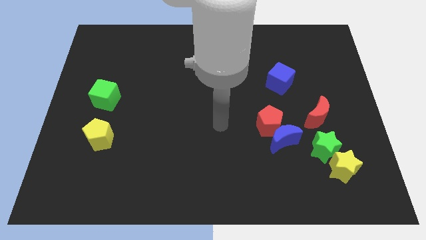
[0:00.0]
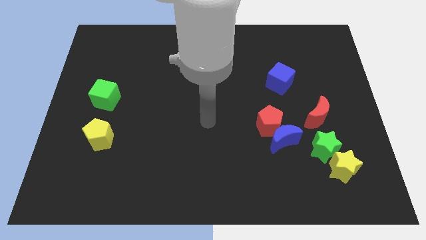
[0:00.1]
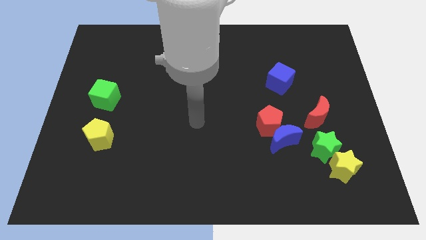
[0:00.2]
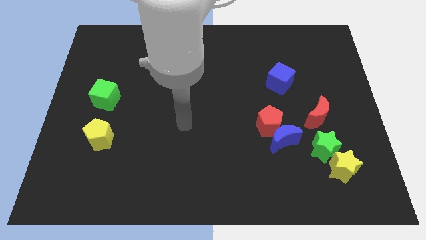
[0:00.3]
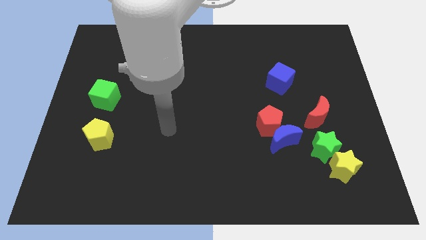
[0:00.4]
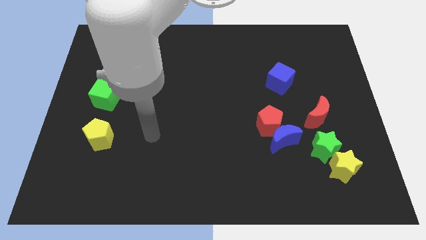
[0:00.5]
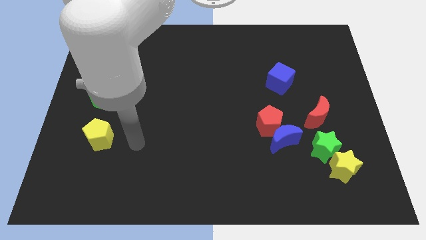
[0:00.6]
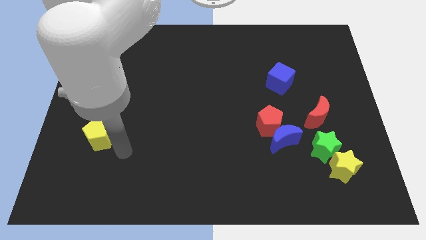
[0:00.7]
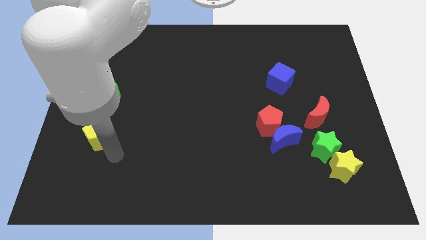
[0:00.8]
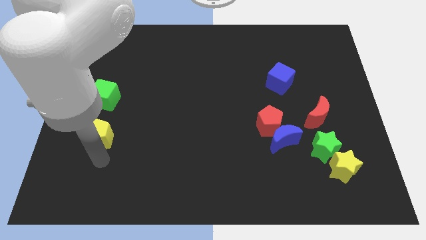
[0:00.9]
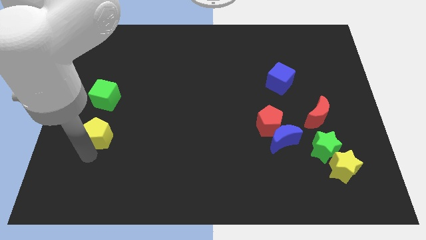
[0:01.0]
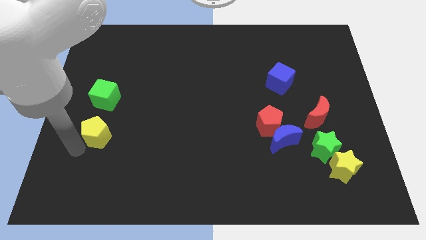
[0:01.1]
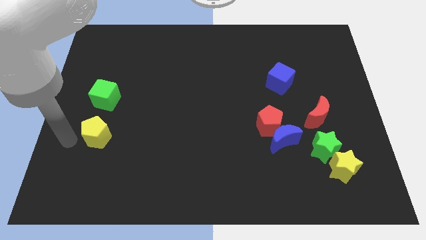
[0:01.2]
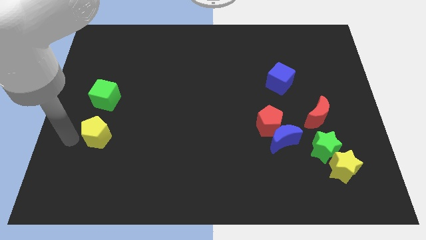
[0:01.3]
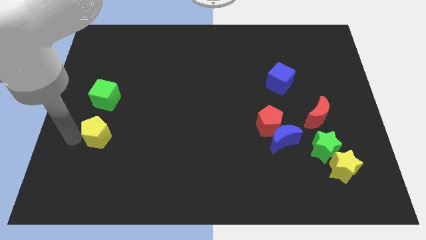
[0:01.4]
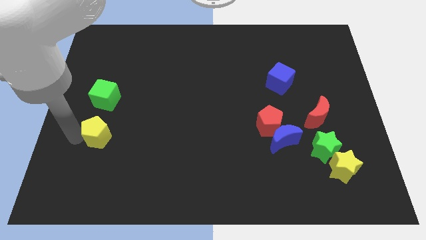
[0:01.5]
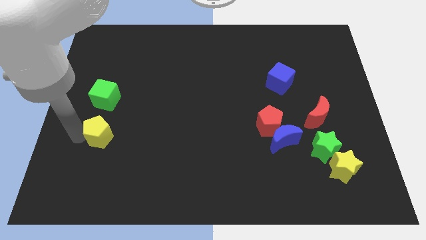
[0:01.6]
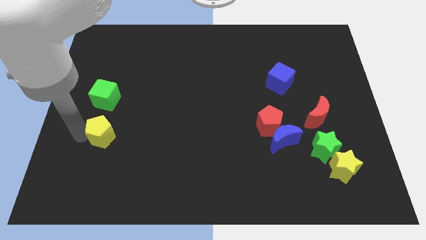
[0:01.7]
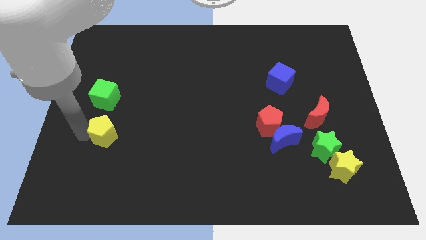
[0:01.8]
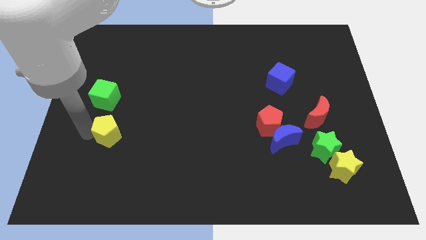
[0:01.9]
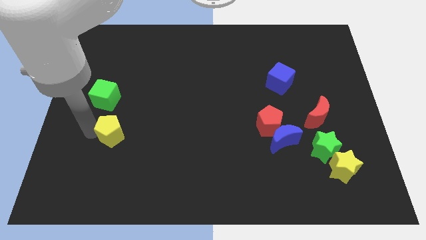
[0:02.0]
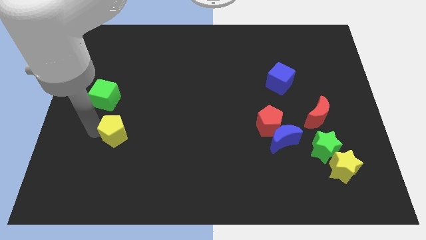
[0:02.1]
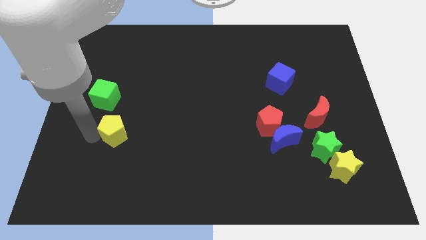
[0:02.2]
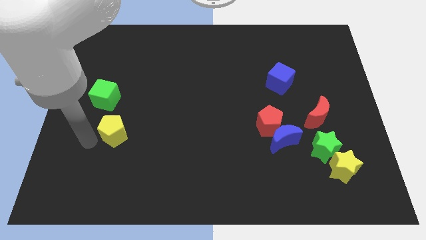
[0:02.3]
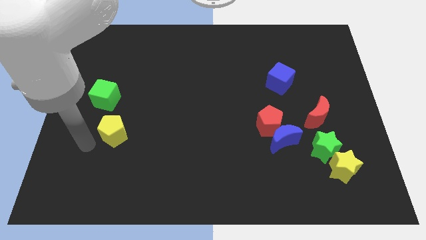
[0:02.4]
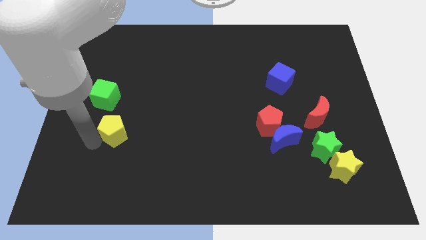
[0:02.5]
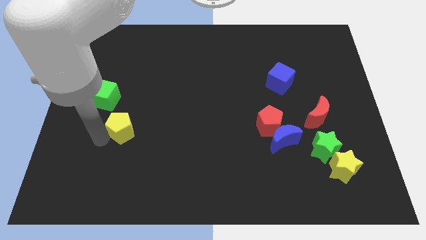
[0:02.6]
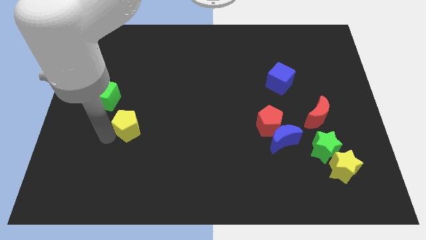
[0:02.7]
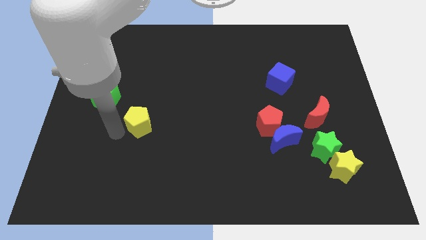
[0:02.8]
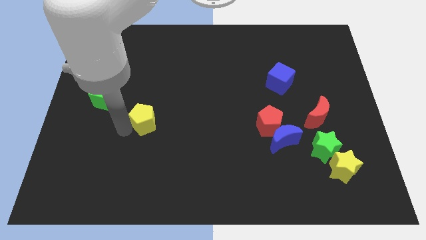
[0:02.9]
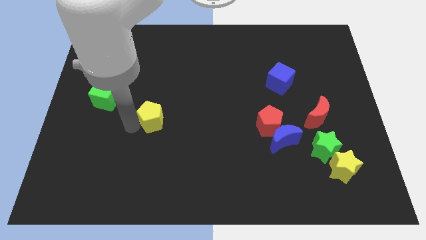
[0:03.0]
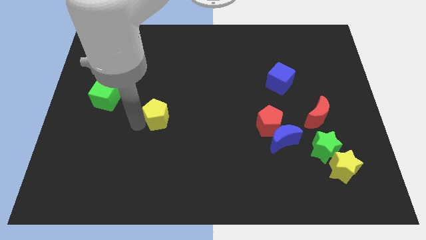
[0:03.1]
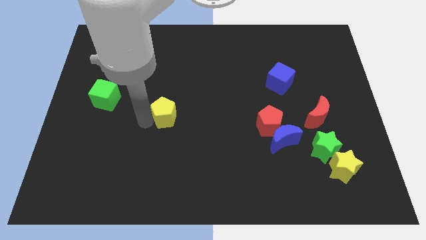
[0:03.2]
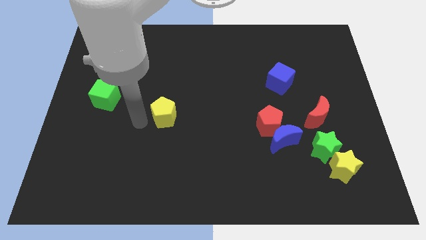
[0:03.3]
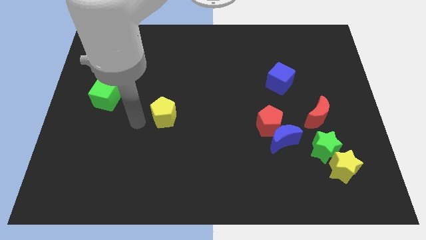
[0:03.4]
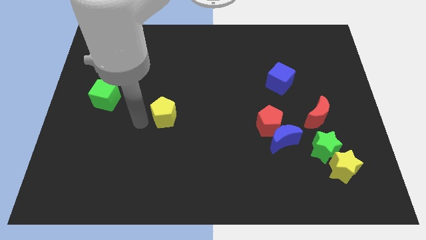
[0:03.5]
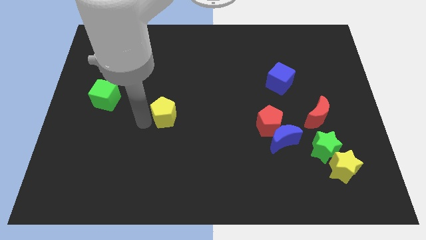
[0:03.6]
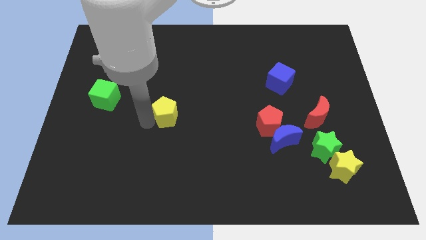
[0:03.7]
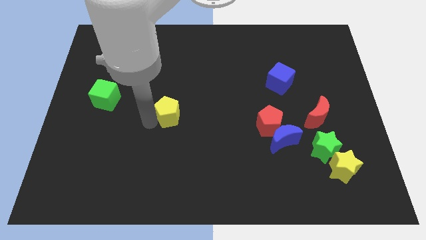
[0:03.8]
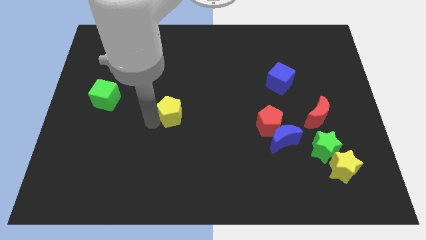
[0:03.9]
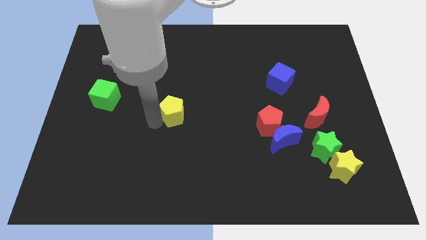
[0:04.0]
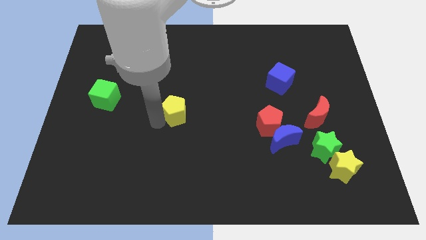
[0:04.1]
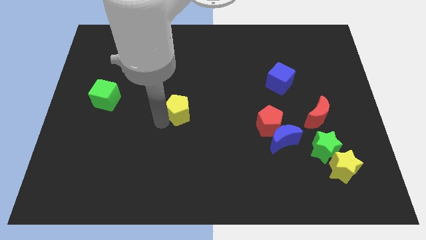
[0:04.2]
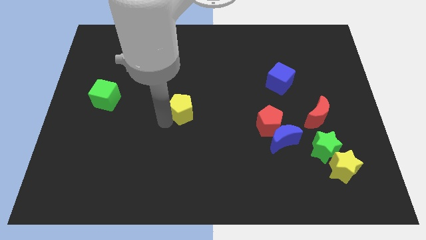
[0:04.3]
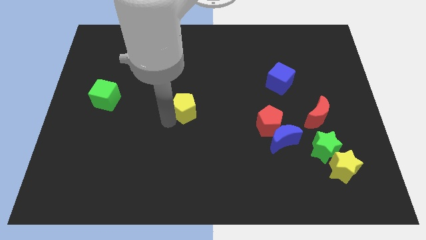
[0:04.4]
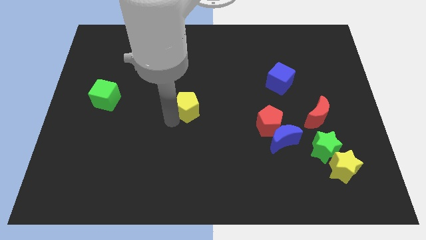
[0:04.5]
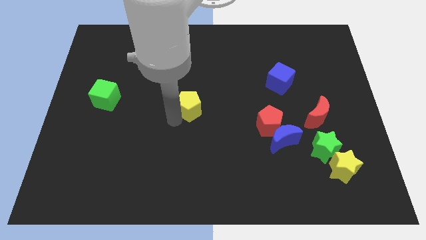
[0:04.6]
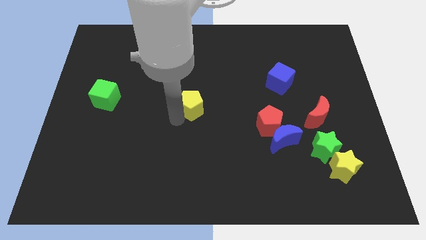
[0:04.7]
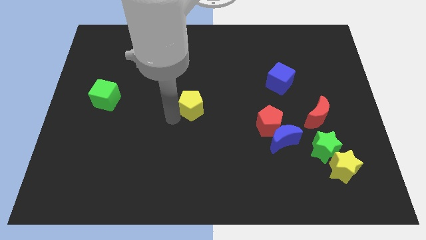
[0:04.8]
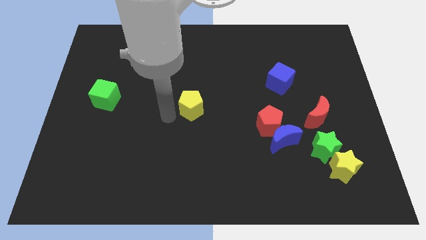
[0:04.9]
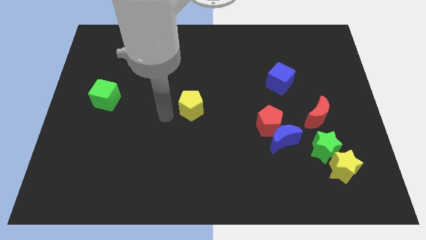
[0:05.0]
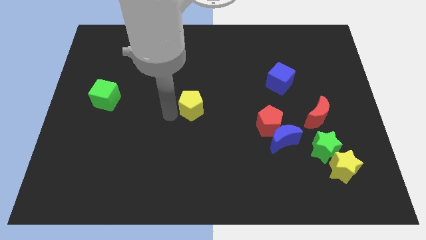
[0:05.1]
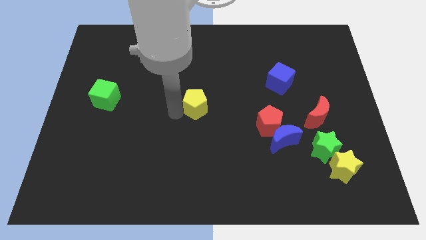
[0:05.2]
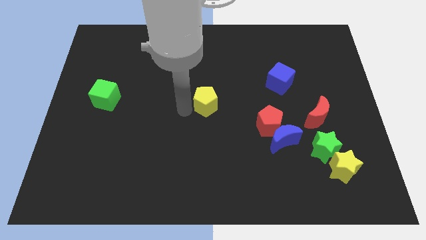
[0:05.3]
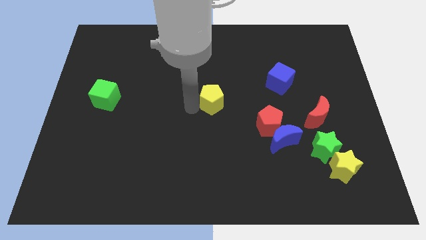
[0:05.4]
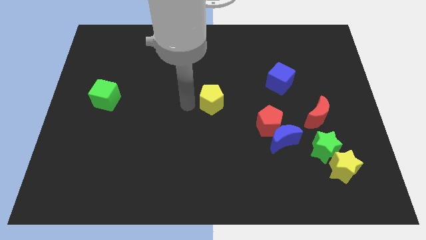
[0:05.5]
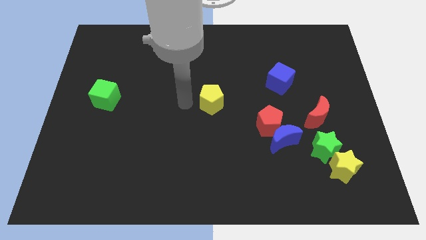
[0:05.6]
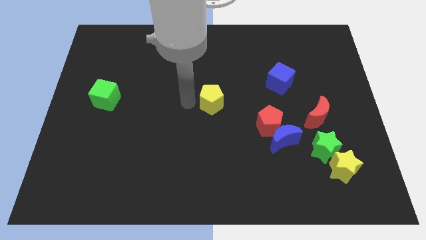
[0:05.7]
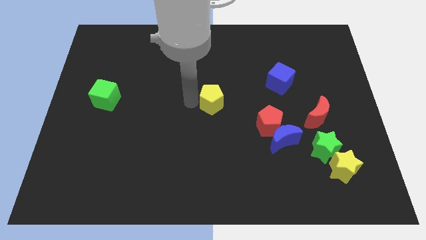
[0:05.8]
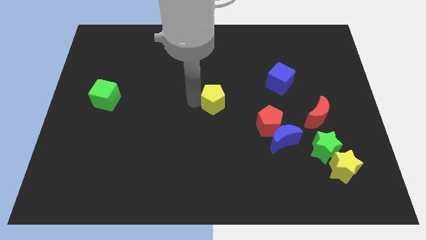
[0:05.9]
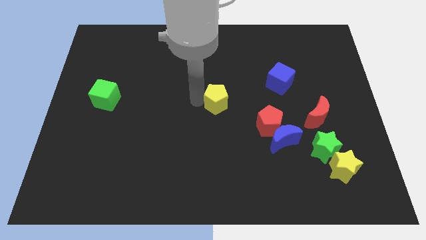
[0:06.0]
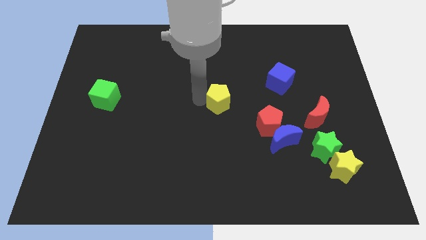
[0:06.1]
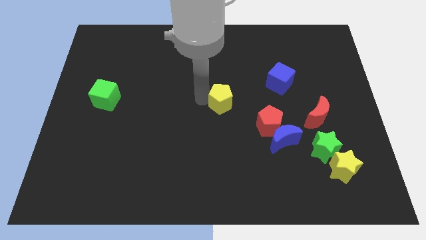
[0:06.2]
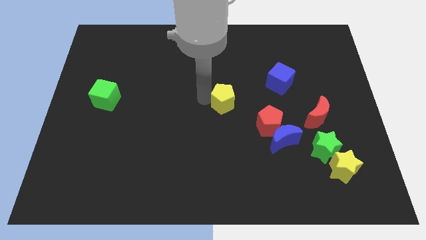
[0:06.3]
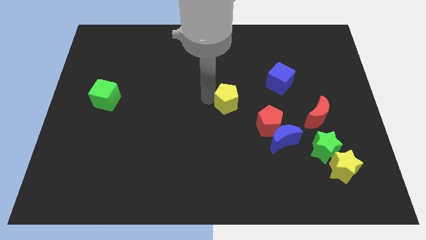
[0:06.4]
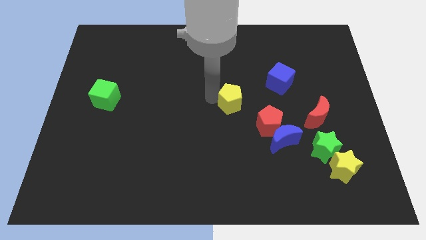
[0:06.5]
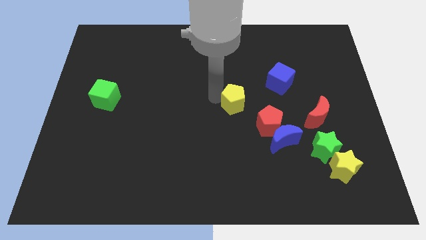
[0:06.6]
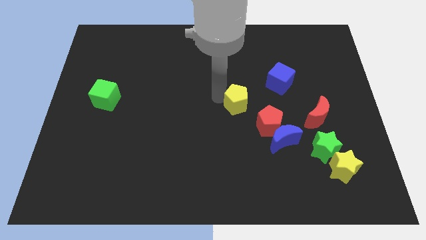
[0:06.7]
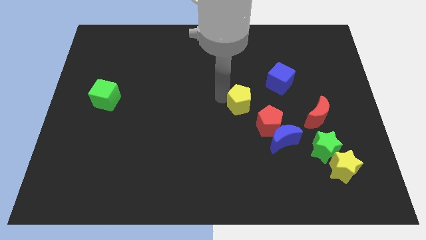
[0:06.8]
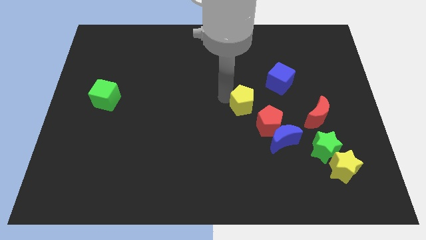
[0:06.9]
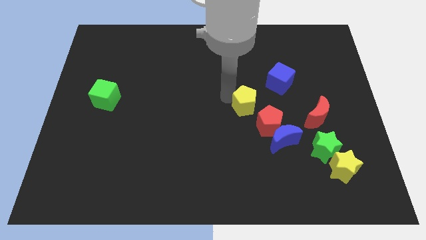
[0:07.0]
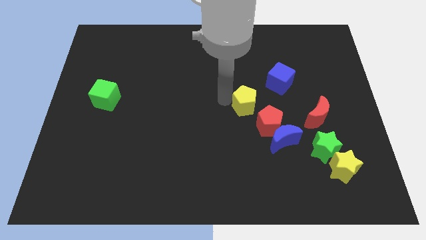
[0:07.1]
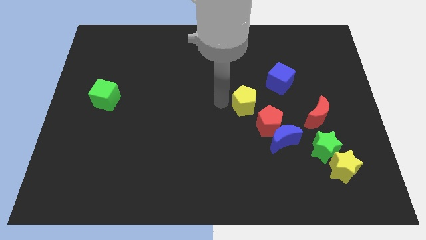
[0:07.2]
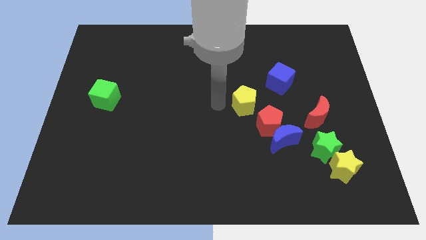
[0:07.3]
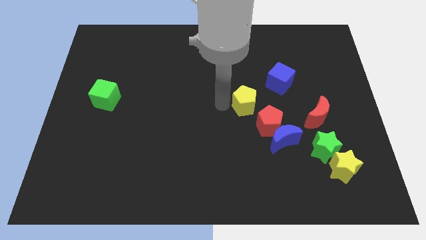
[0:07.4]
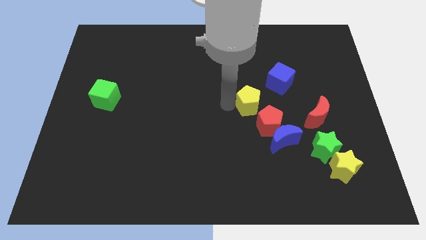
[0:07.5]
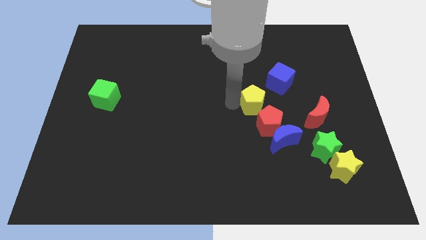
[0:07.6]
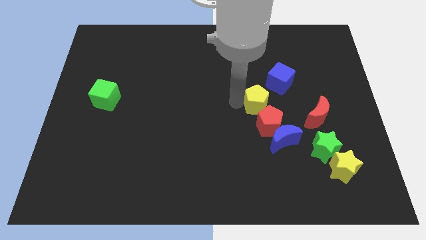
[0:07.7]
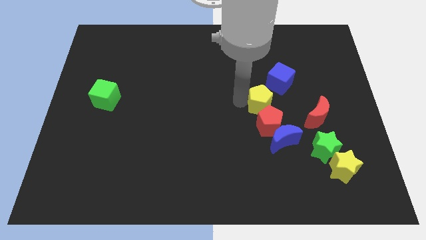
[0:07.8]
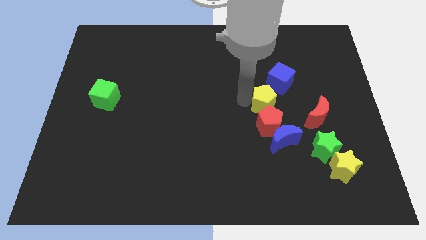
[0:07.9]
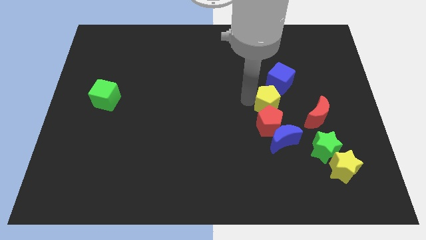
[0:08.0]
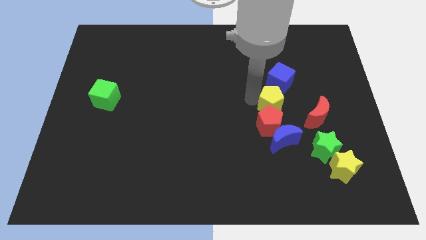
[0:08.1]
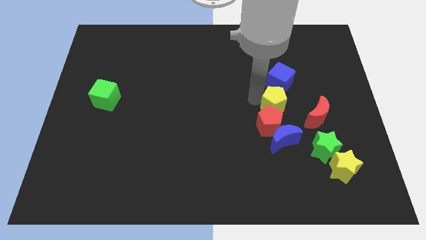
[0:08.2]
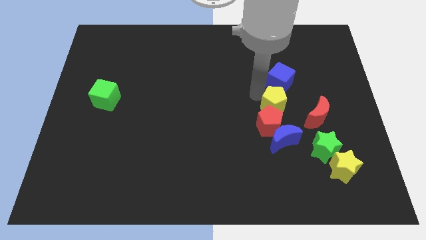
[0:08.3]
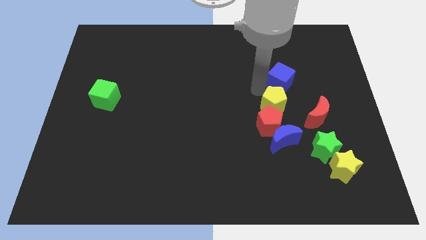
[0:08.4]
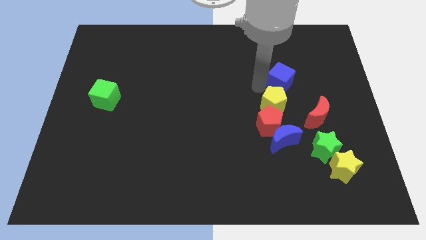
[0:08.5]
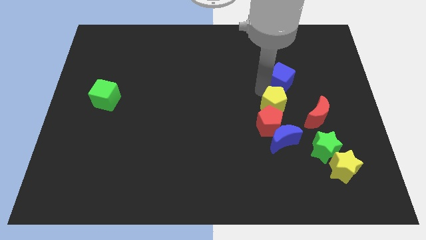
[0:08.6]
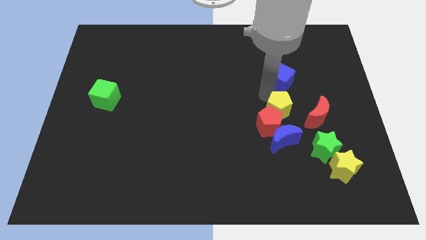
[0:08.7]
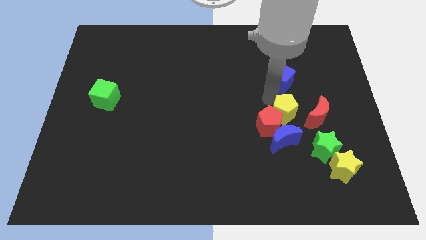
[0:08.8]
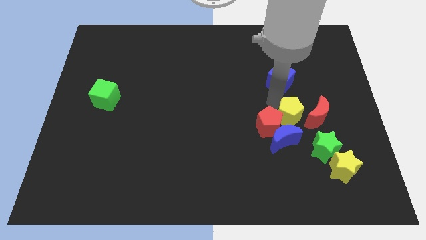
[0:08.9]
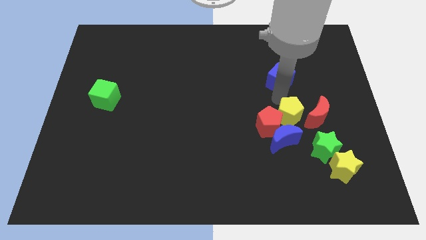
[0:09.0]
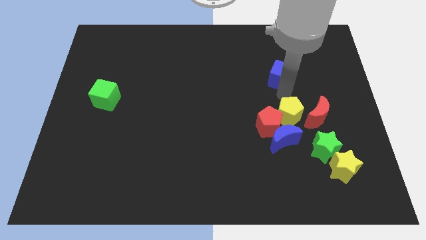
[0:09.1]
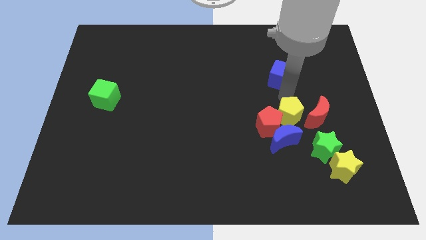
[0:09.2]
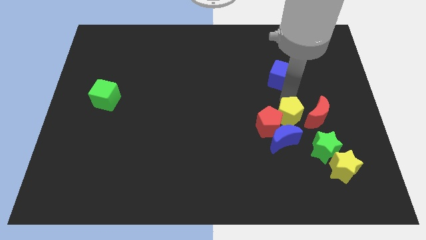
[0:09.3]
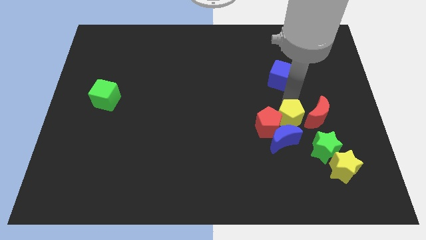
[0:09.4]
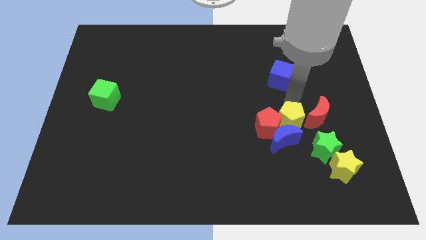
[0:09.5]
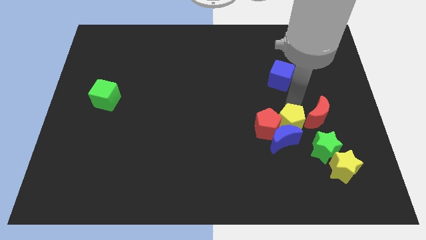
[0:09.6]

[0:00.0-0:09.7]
slide the yellow pentagon to the bottom right side of the red pentagon
